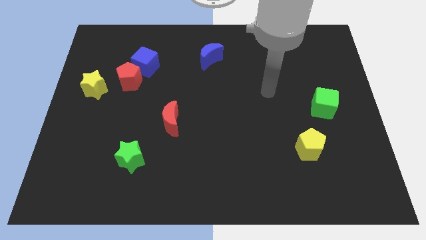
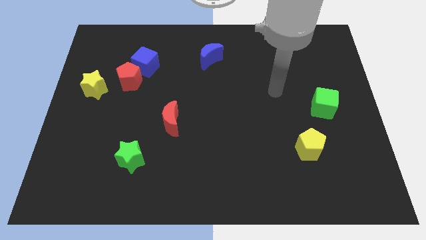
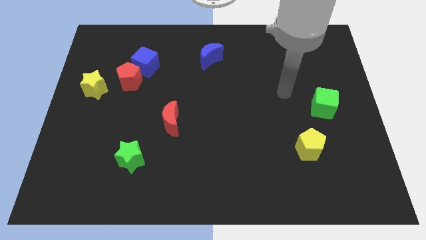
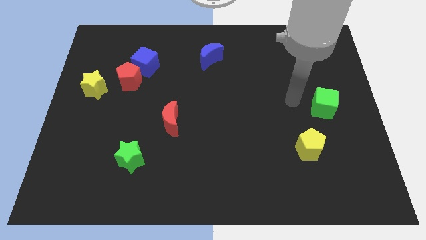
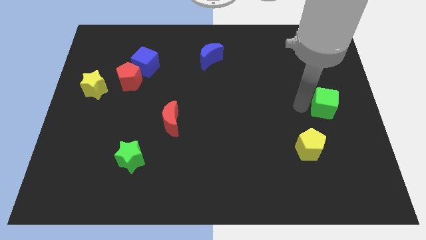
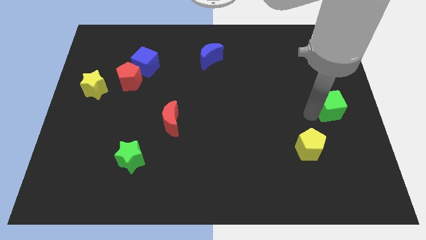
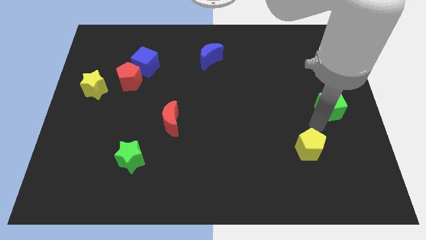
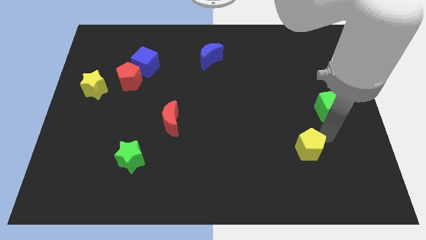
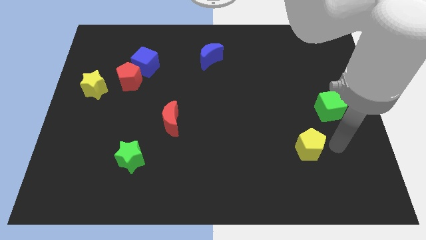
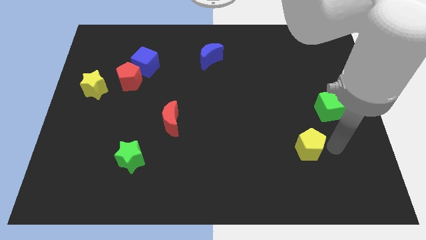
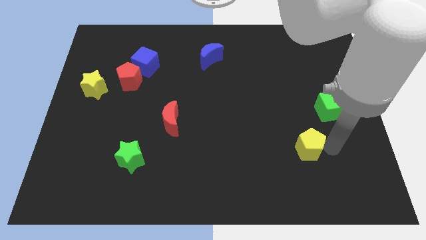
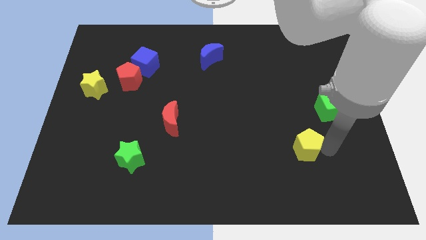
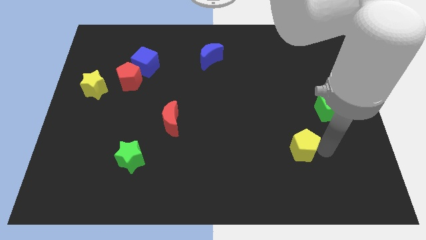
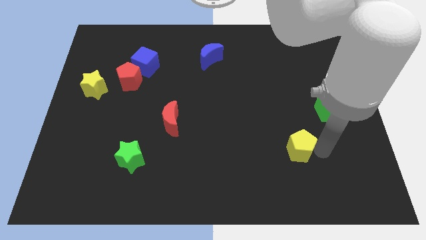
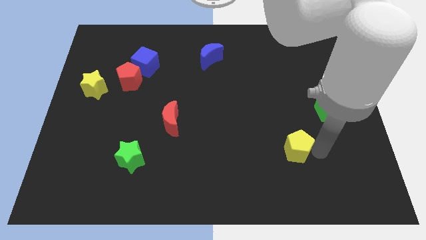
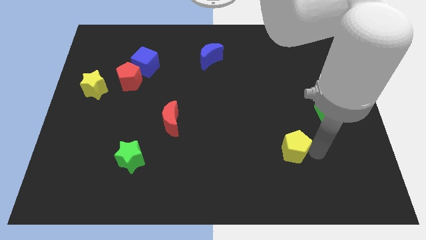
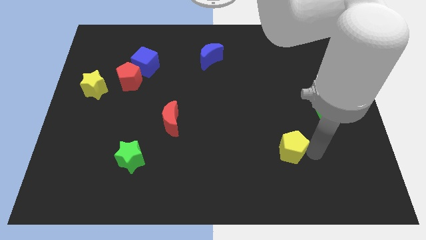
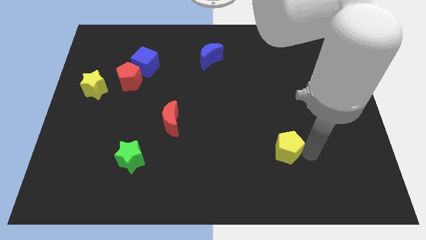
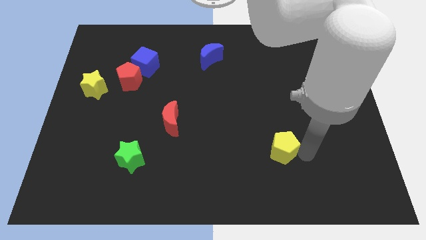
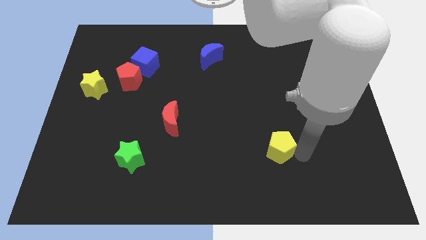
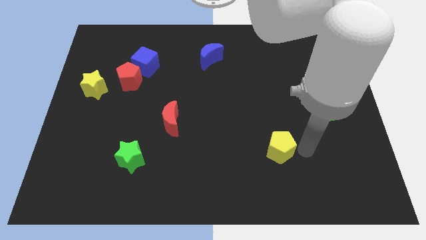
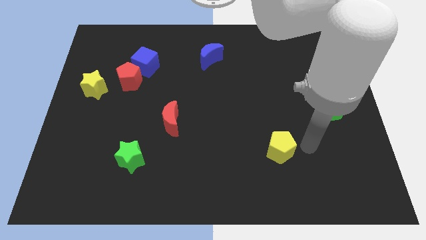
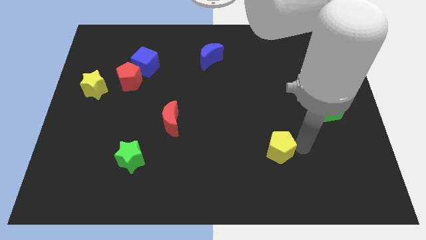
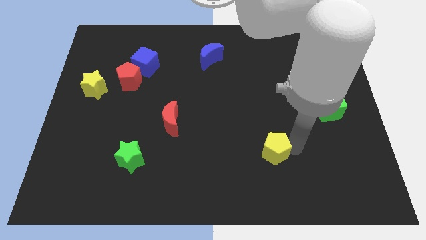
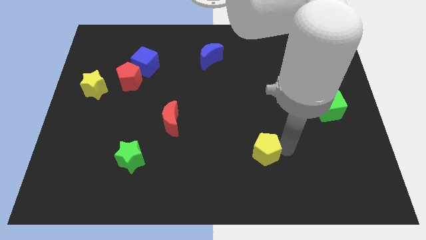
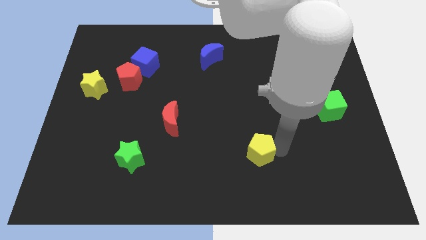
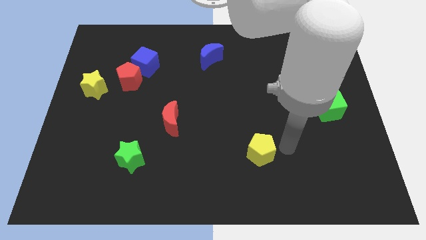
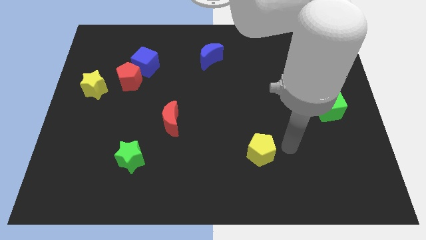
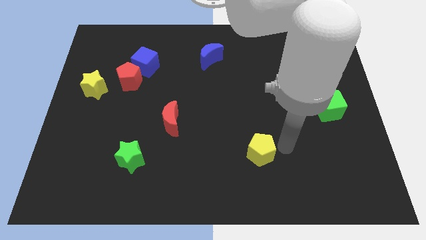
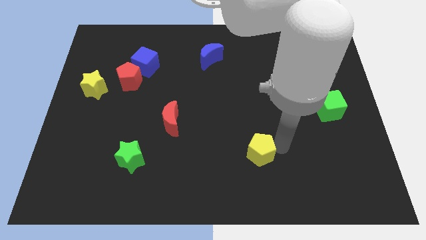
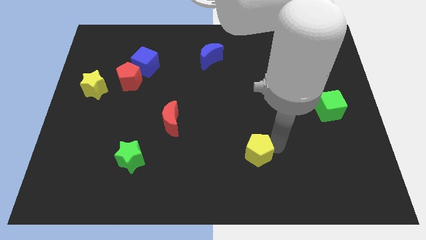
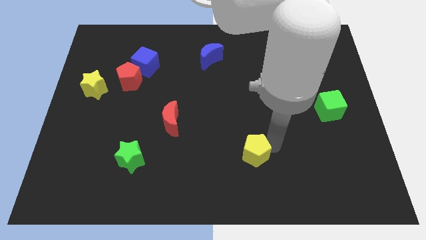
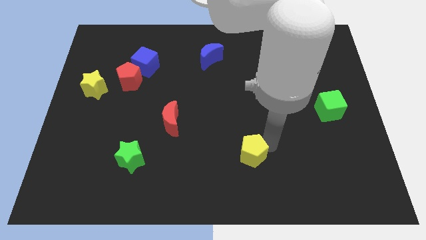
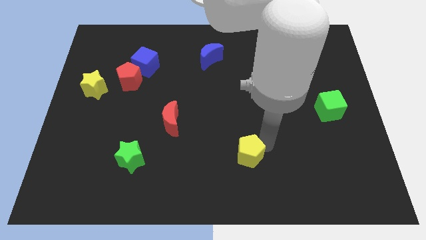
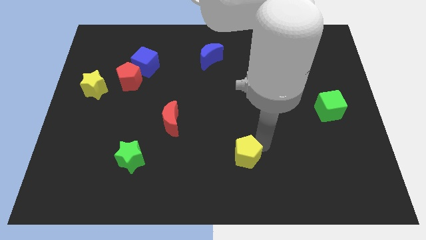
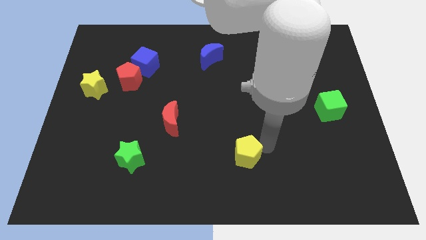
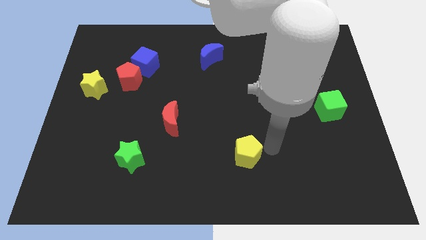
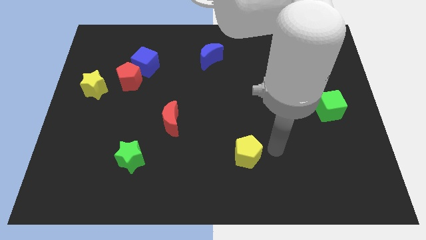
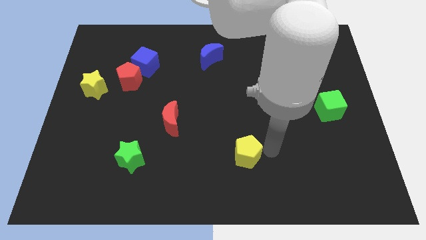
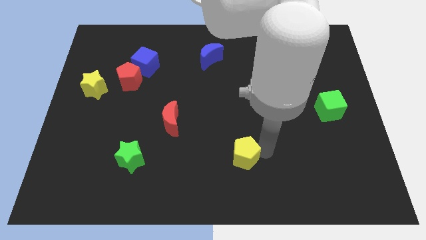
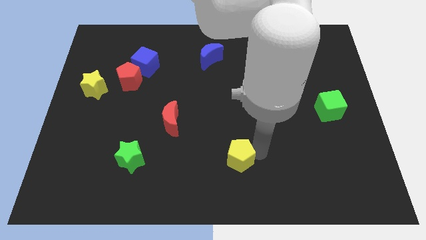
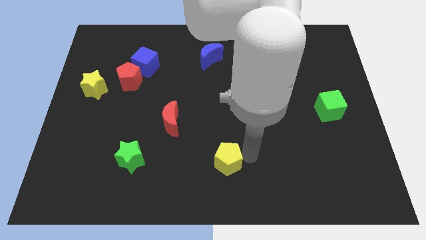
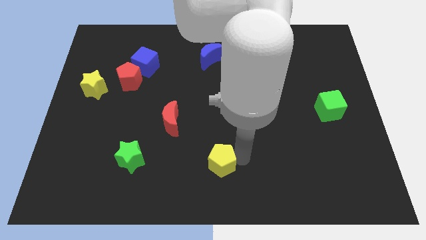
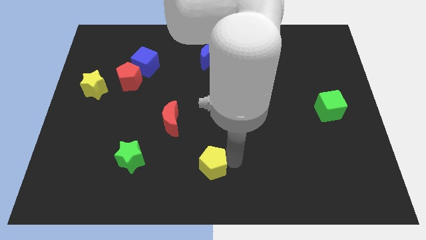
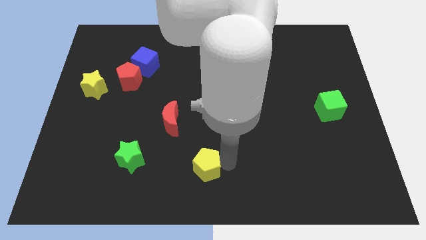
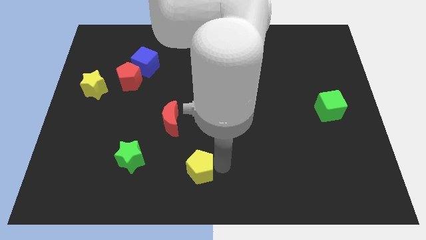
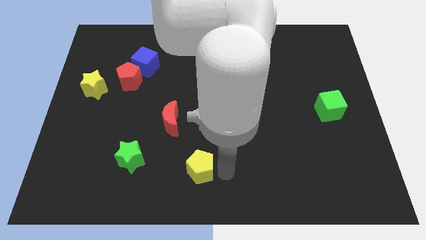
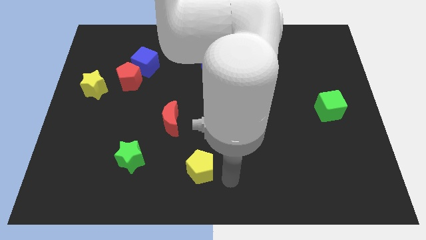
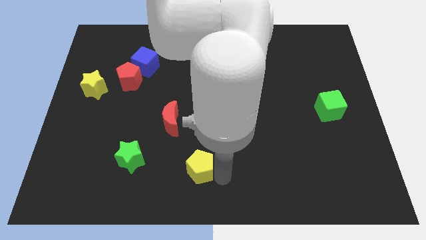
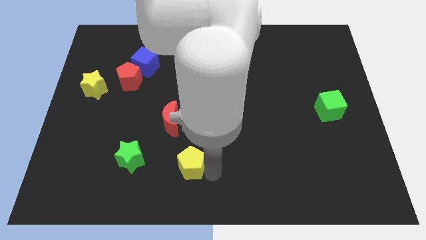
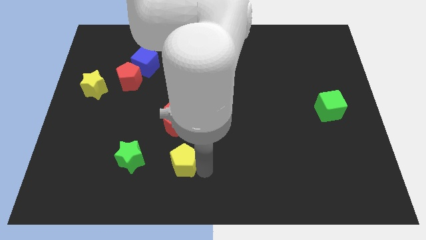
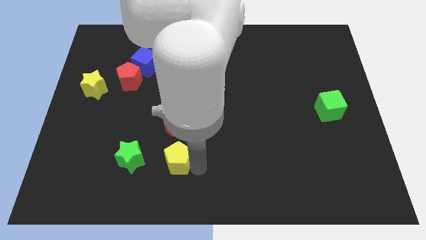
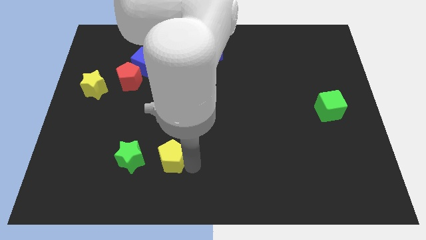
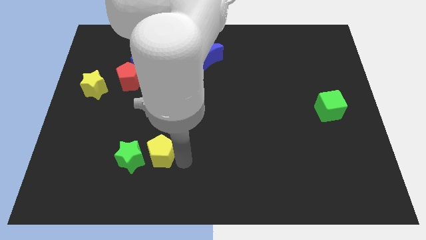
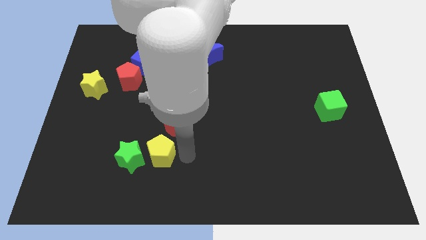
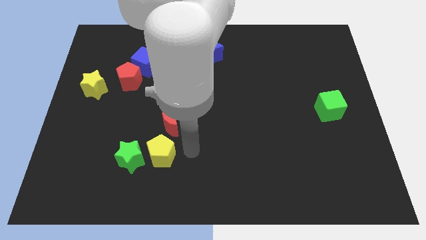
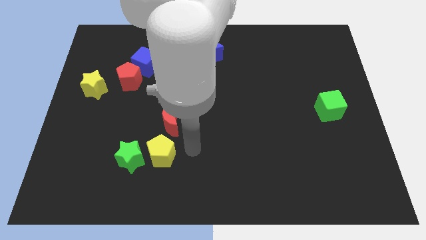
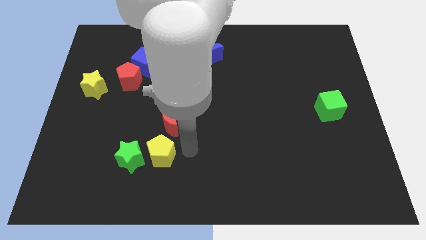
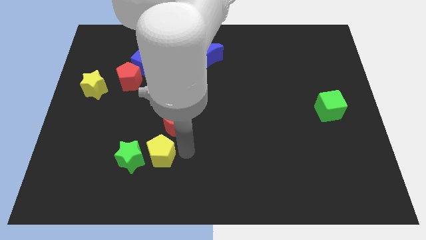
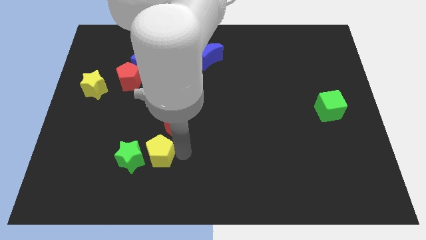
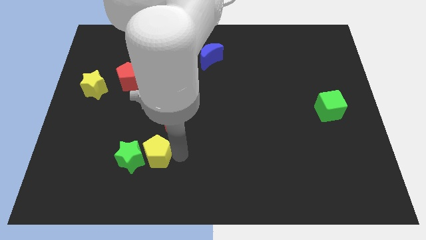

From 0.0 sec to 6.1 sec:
put the yellow pentagon next to the green star

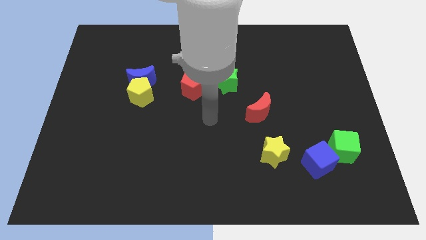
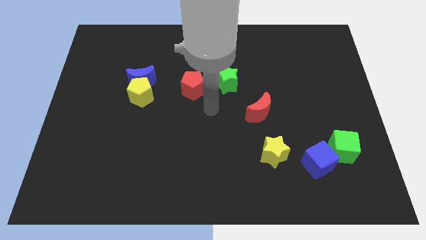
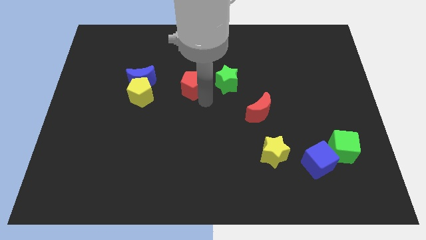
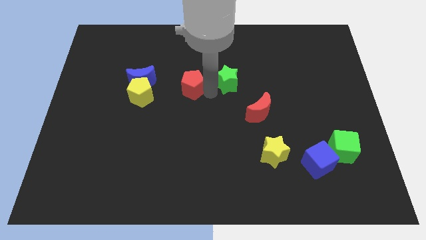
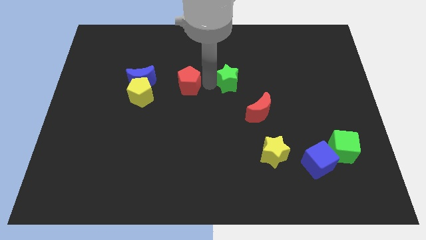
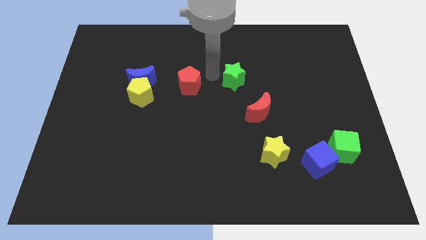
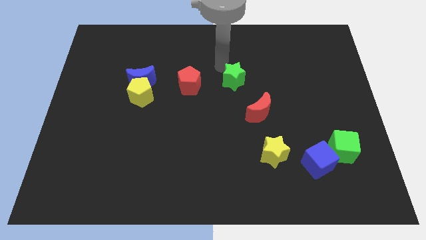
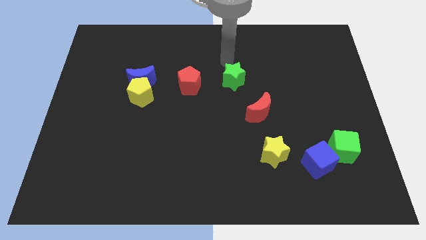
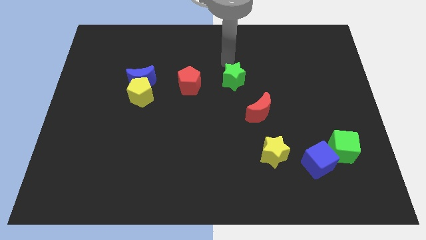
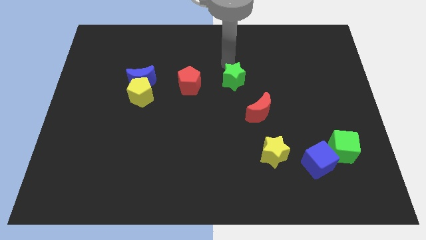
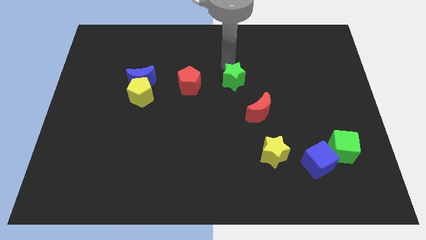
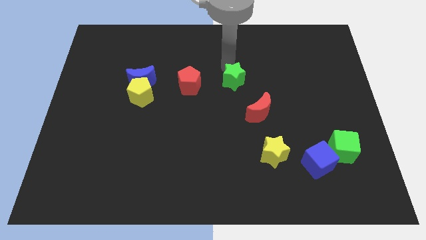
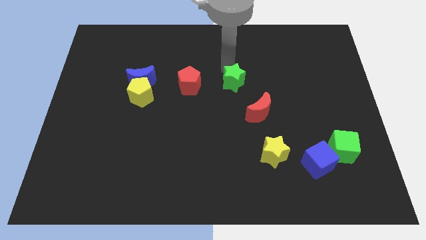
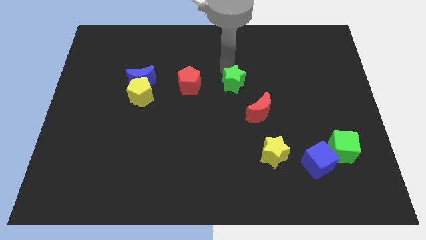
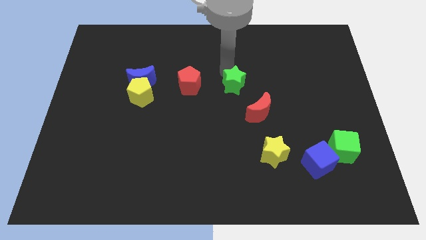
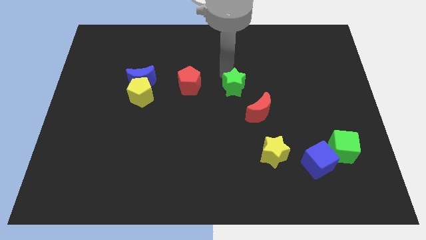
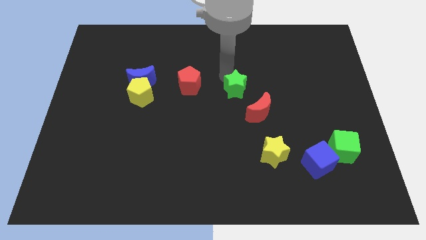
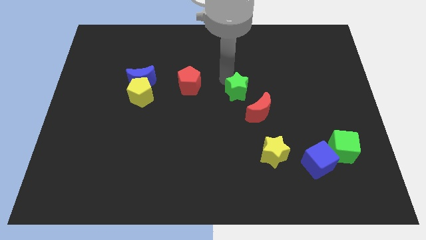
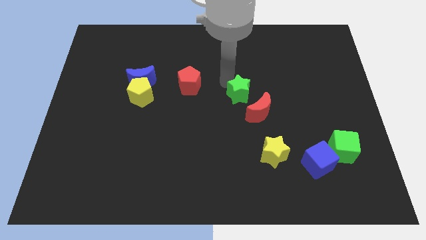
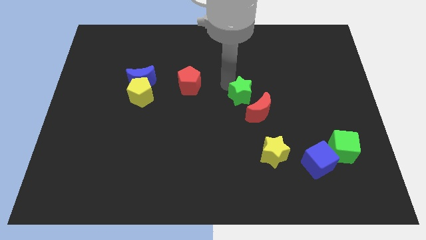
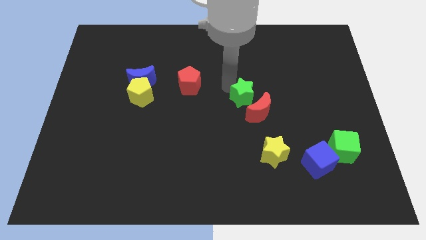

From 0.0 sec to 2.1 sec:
move the green star to the red moon
